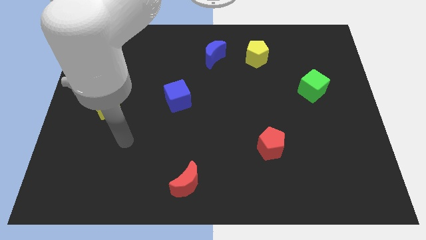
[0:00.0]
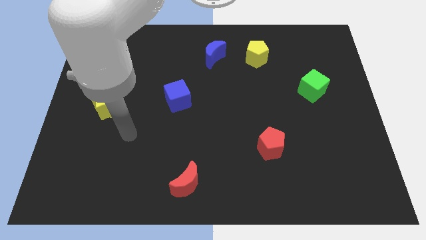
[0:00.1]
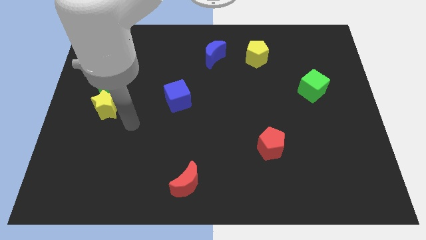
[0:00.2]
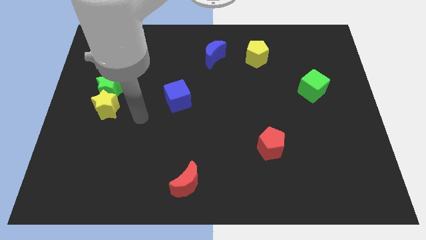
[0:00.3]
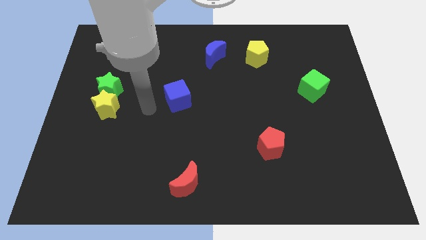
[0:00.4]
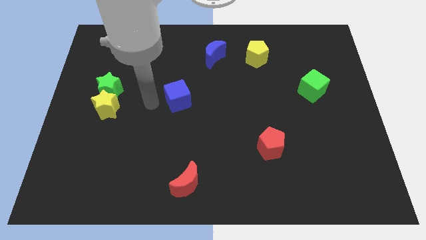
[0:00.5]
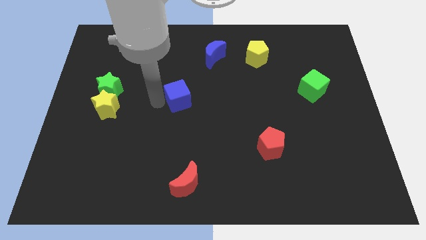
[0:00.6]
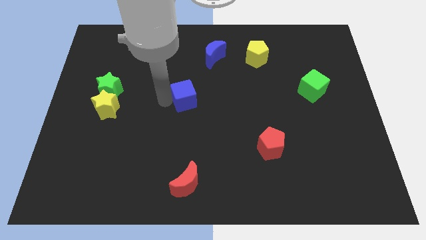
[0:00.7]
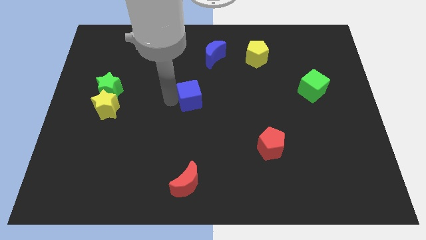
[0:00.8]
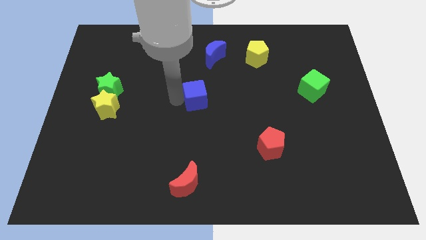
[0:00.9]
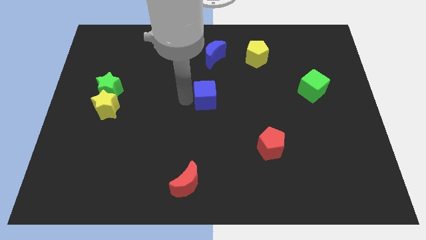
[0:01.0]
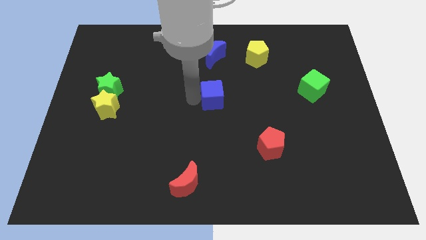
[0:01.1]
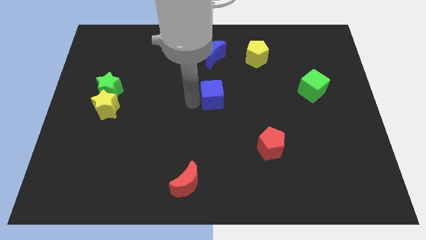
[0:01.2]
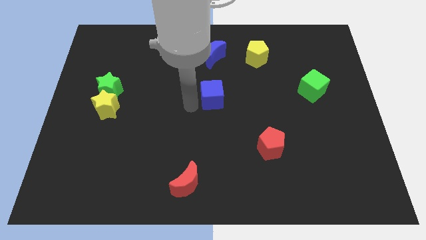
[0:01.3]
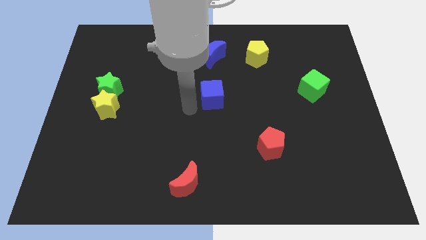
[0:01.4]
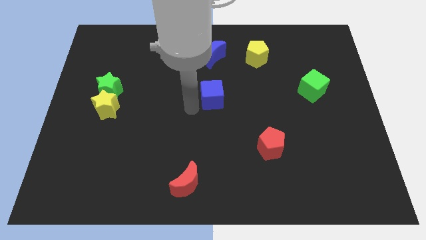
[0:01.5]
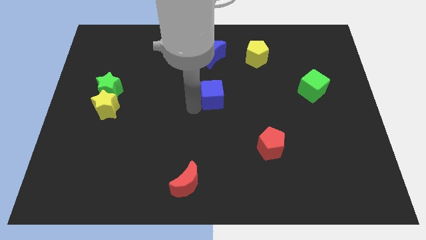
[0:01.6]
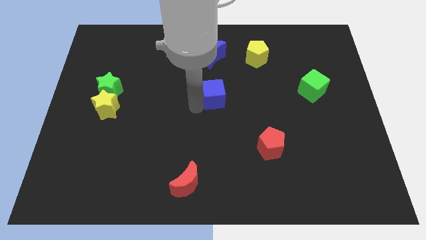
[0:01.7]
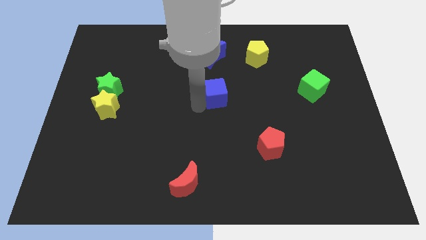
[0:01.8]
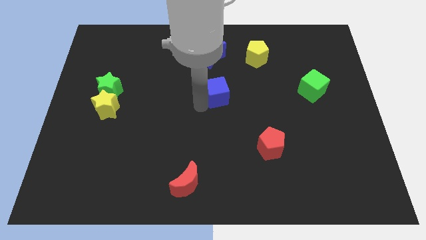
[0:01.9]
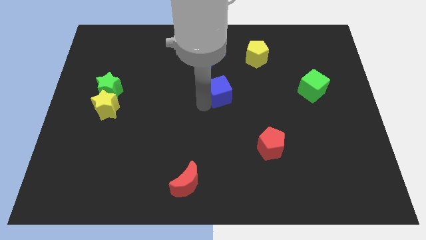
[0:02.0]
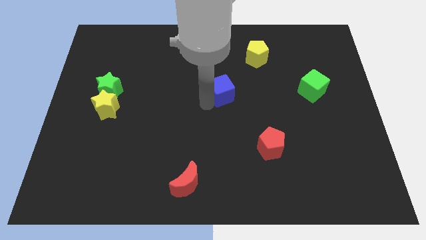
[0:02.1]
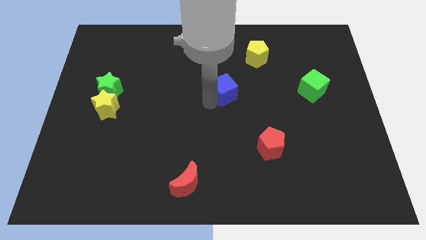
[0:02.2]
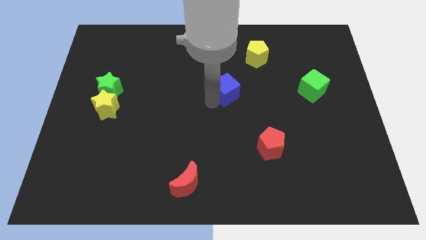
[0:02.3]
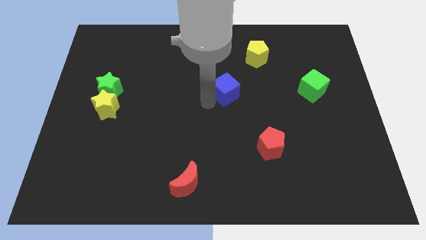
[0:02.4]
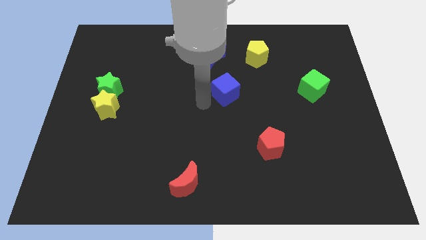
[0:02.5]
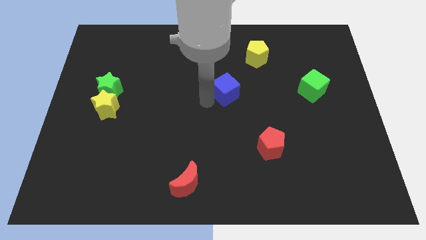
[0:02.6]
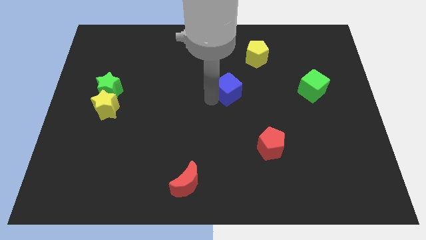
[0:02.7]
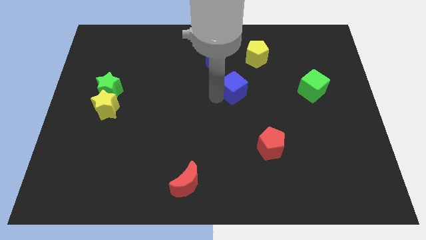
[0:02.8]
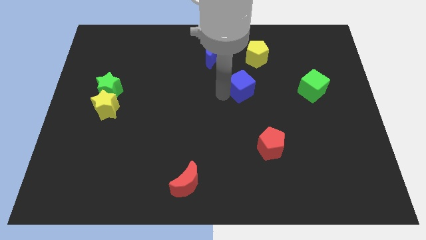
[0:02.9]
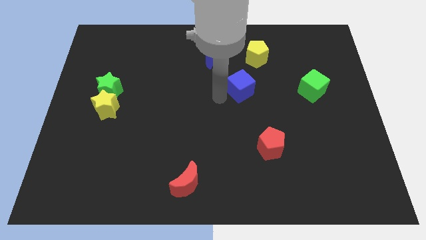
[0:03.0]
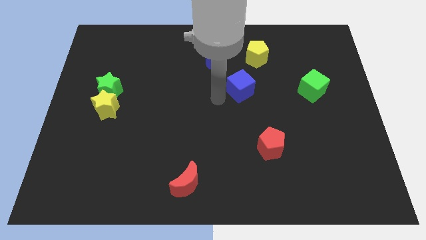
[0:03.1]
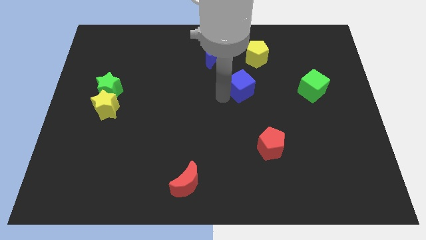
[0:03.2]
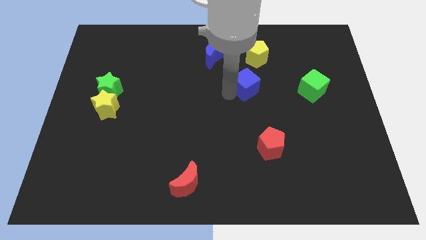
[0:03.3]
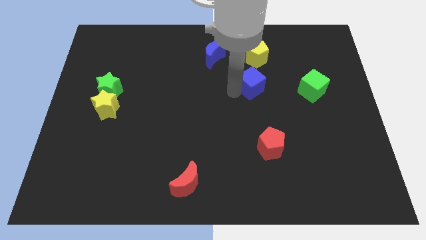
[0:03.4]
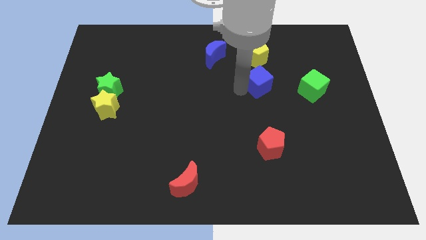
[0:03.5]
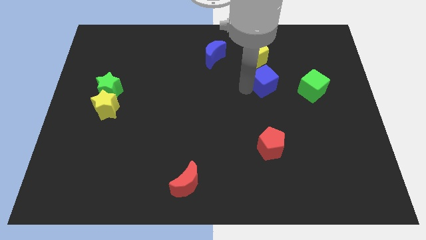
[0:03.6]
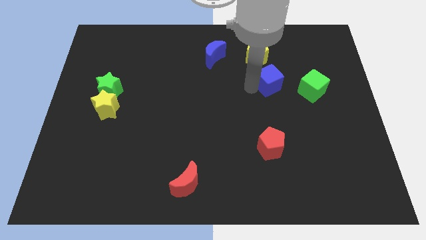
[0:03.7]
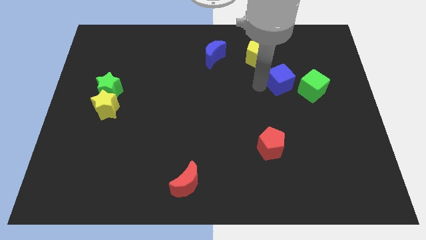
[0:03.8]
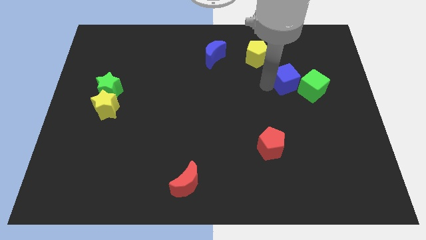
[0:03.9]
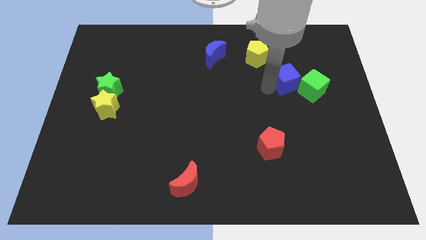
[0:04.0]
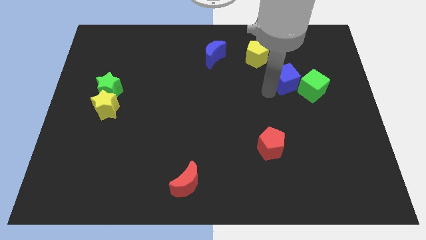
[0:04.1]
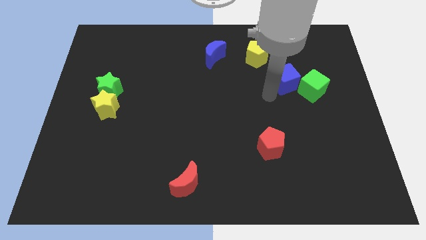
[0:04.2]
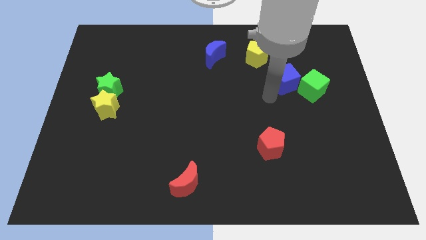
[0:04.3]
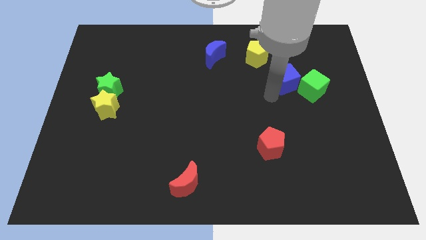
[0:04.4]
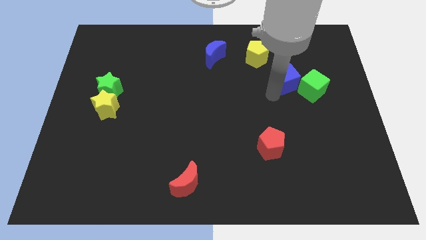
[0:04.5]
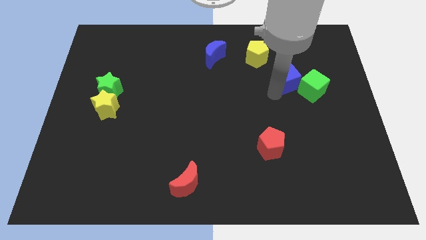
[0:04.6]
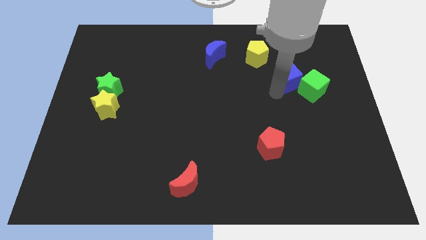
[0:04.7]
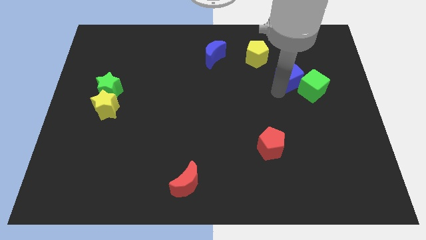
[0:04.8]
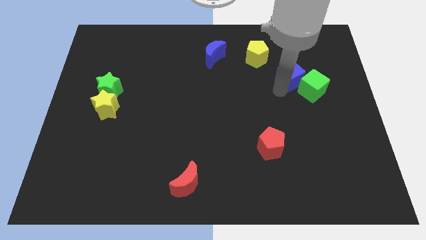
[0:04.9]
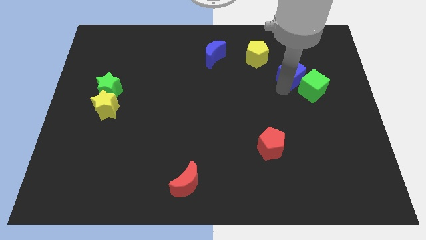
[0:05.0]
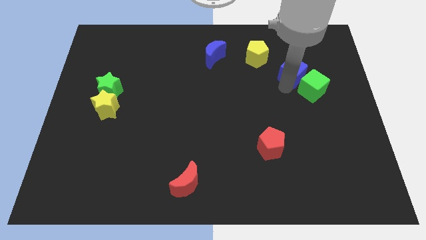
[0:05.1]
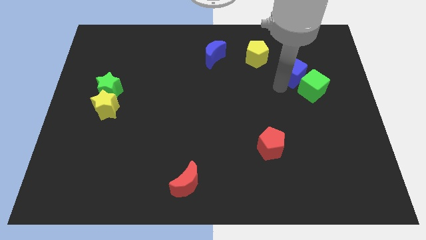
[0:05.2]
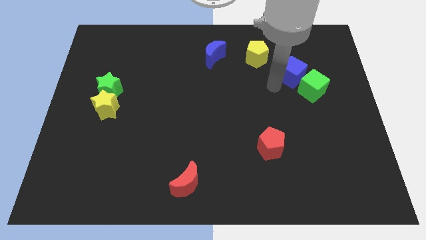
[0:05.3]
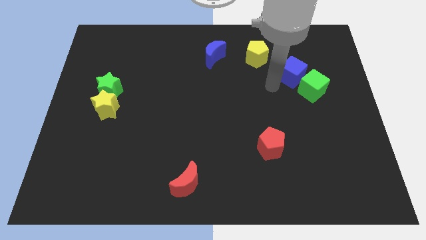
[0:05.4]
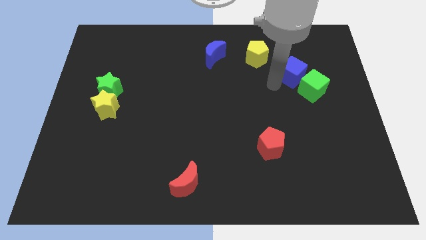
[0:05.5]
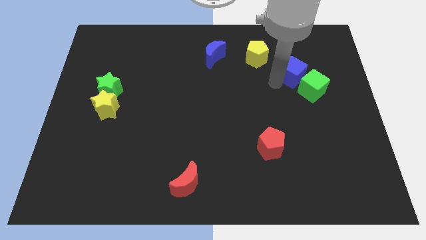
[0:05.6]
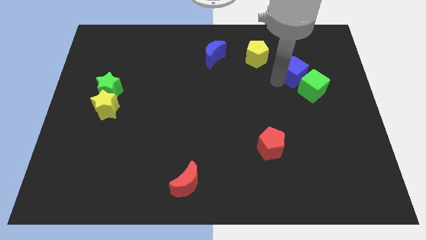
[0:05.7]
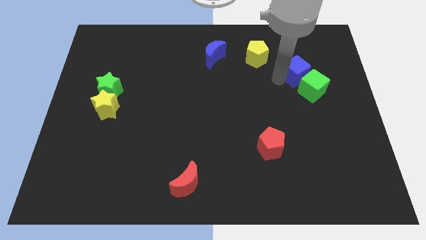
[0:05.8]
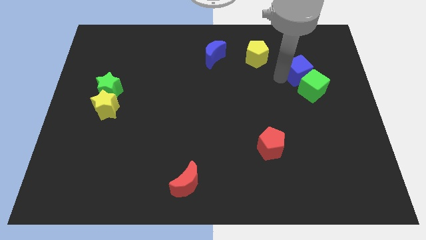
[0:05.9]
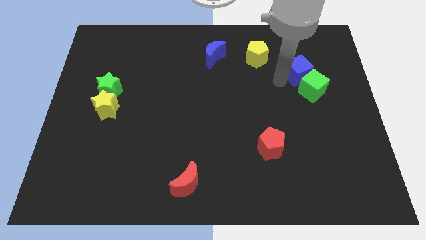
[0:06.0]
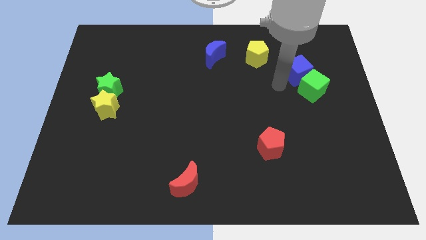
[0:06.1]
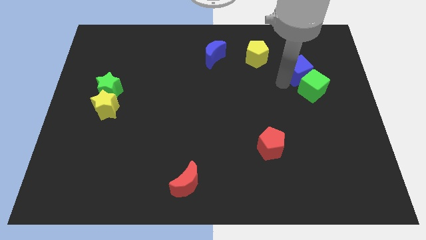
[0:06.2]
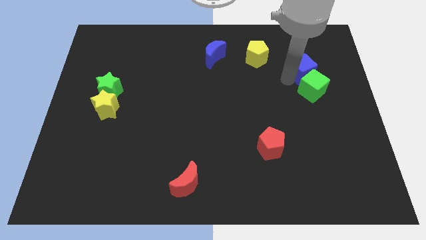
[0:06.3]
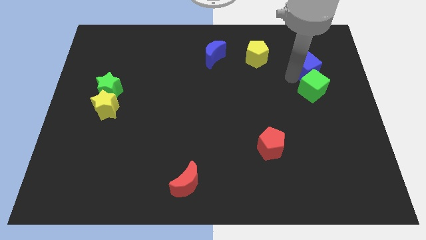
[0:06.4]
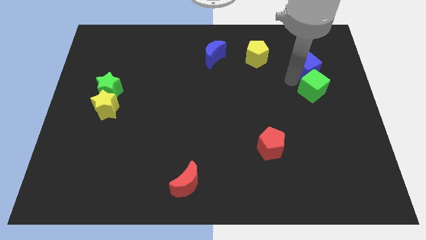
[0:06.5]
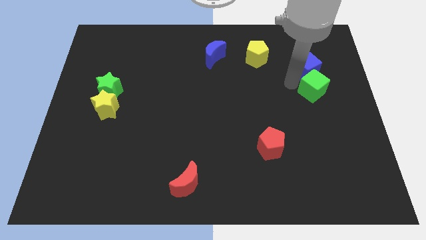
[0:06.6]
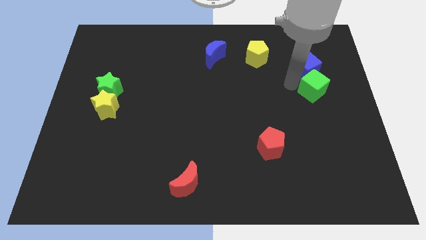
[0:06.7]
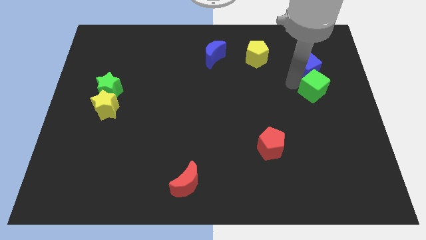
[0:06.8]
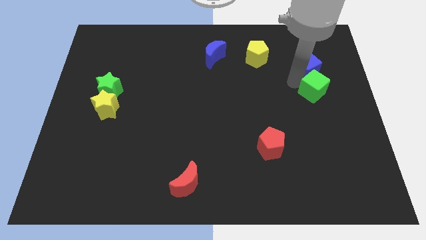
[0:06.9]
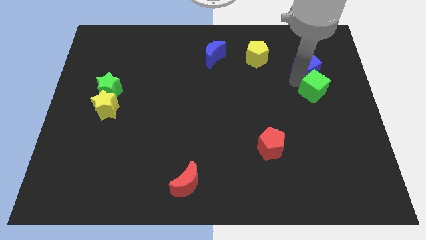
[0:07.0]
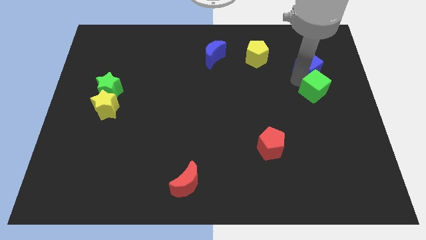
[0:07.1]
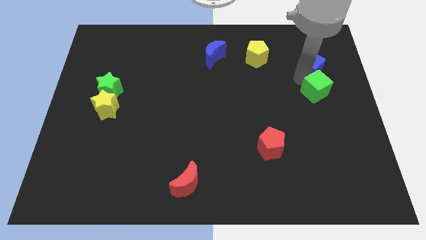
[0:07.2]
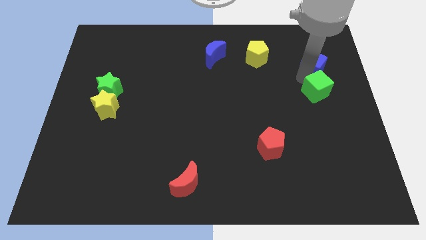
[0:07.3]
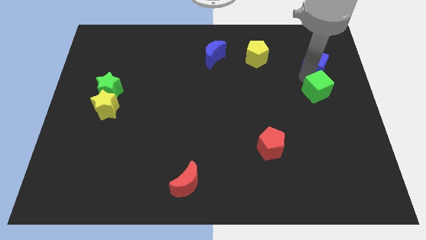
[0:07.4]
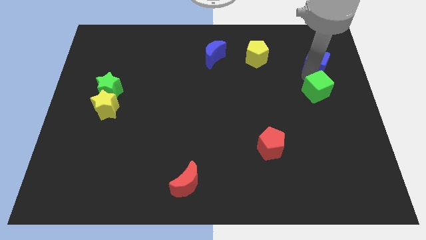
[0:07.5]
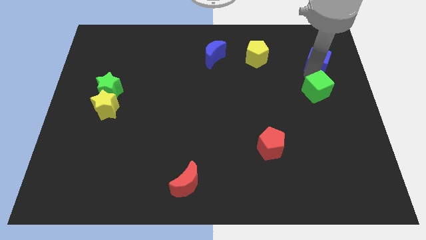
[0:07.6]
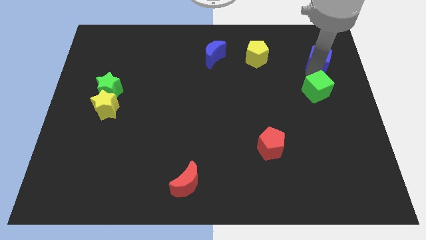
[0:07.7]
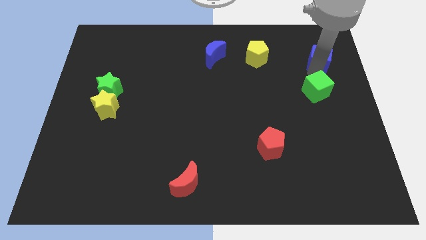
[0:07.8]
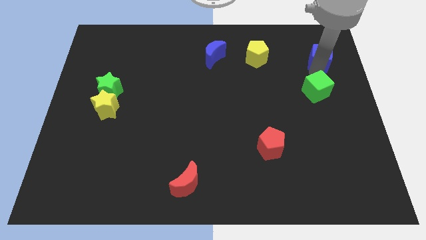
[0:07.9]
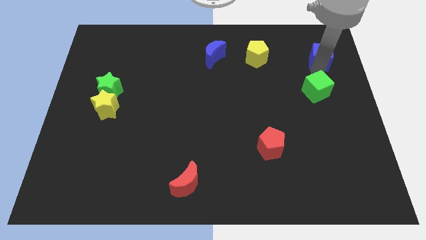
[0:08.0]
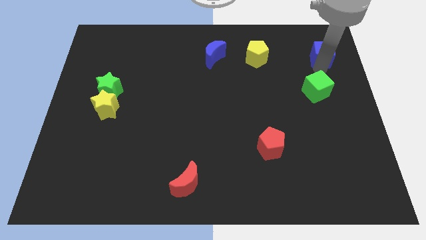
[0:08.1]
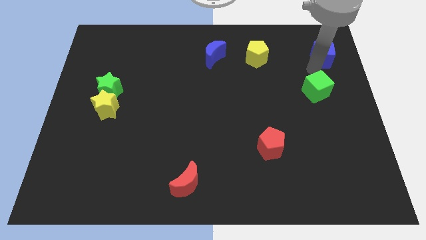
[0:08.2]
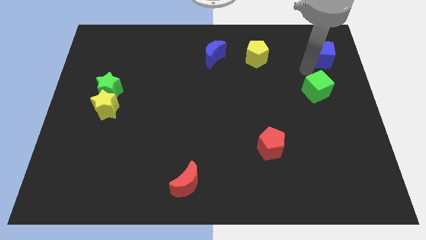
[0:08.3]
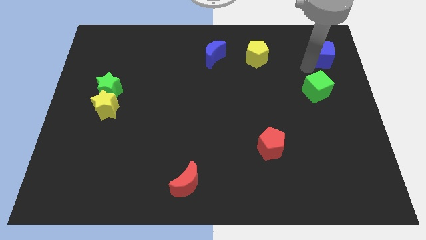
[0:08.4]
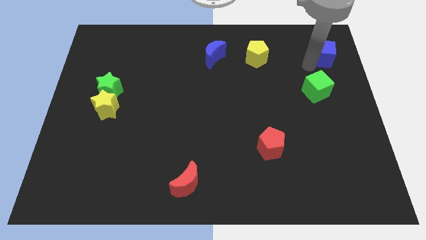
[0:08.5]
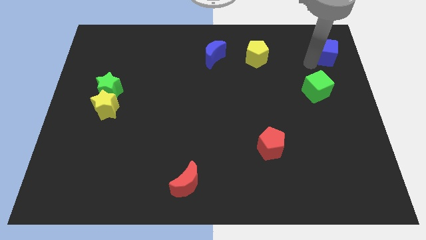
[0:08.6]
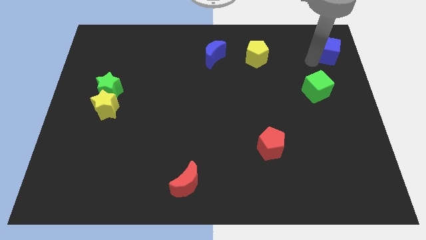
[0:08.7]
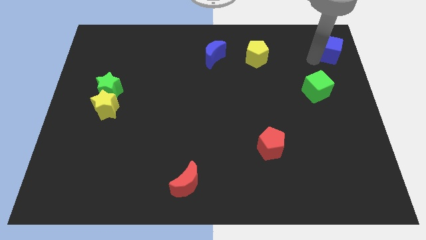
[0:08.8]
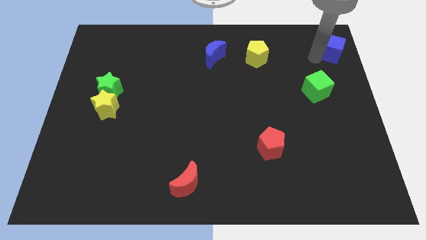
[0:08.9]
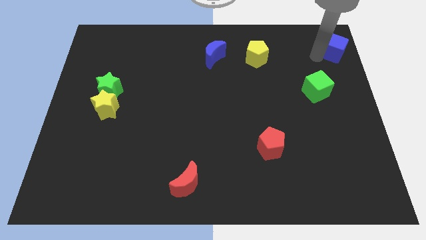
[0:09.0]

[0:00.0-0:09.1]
push the blue cube to the upper right corner
